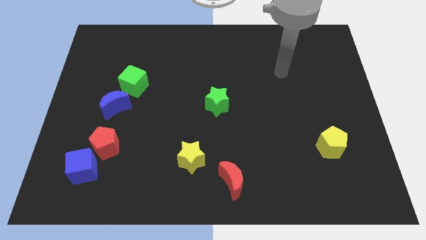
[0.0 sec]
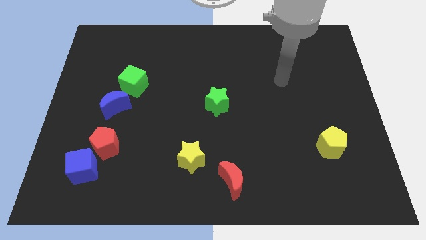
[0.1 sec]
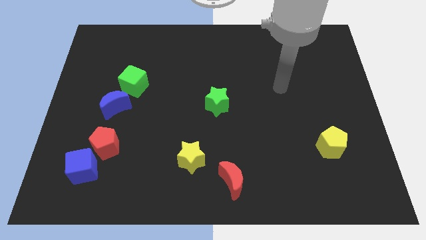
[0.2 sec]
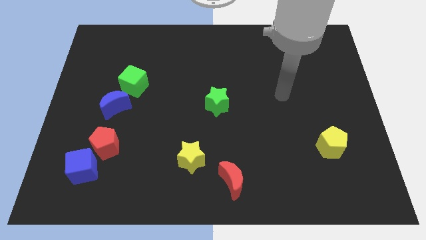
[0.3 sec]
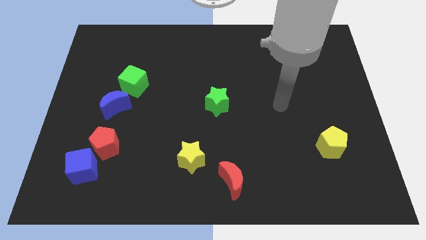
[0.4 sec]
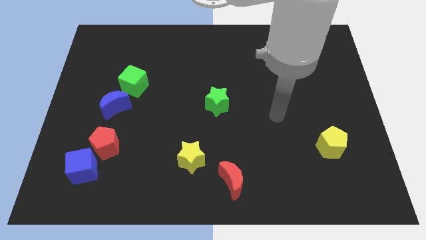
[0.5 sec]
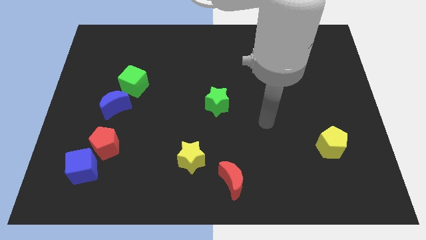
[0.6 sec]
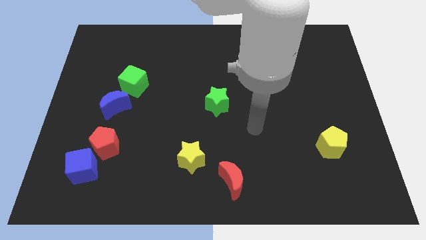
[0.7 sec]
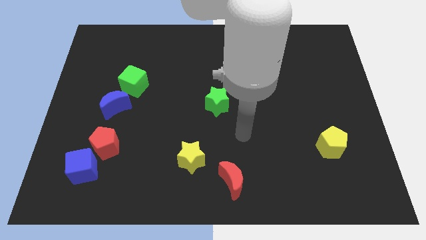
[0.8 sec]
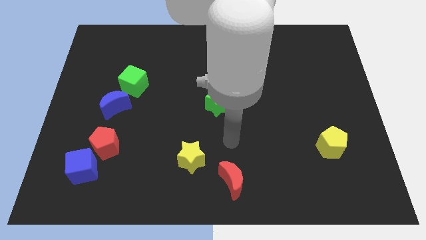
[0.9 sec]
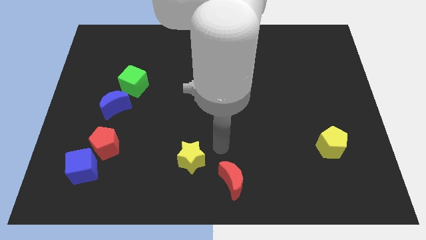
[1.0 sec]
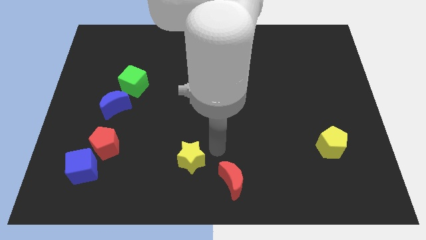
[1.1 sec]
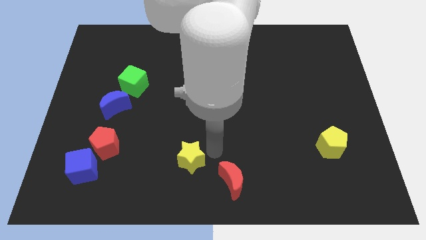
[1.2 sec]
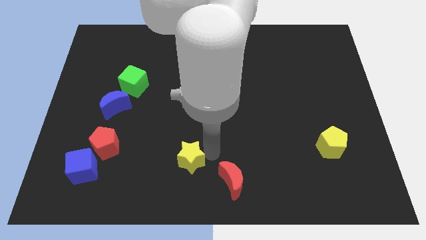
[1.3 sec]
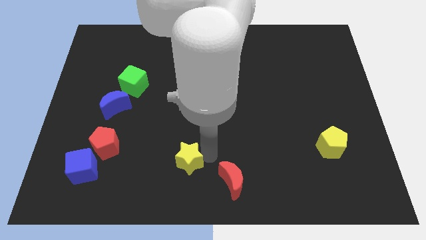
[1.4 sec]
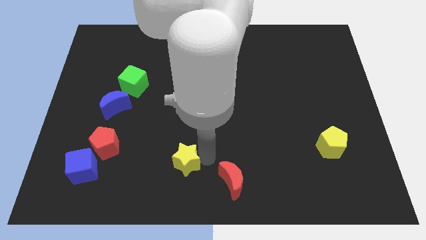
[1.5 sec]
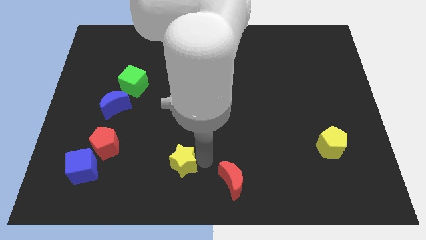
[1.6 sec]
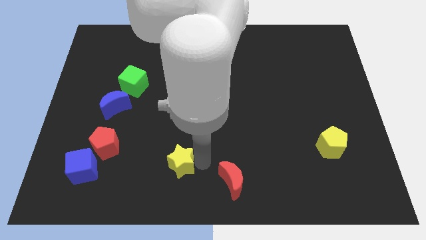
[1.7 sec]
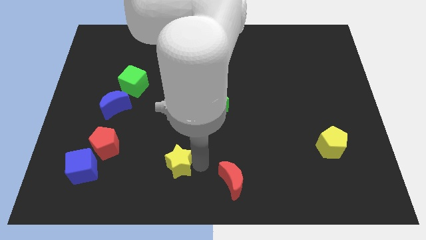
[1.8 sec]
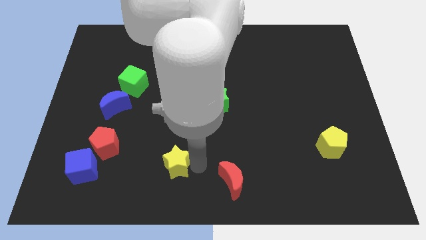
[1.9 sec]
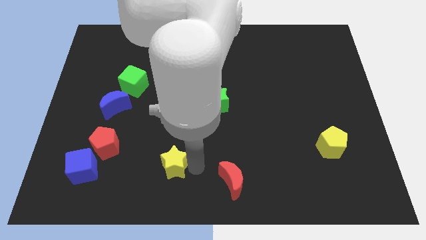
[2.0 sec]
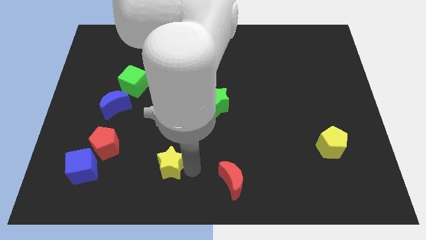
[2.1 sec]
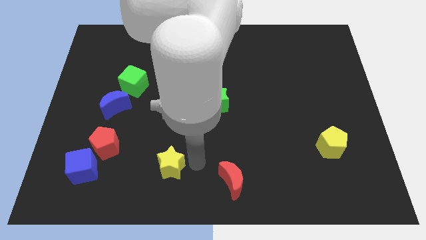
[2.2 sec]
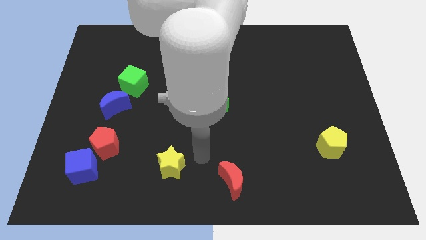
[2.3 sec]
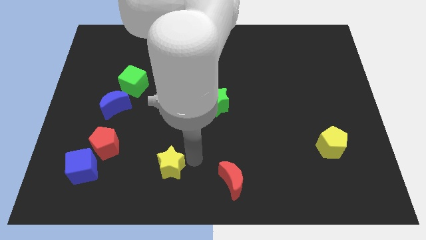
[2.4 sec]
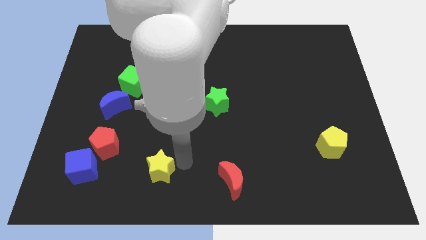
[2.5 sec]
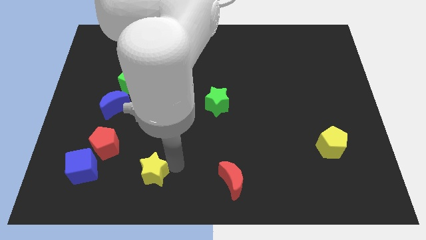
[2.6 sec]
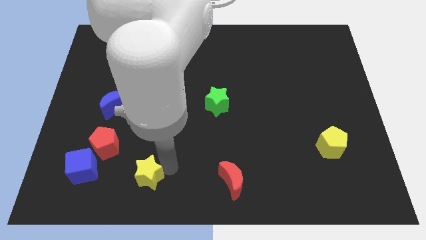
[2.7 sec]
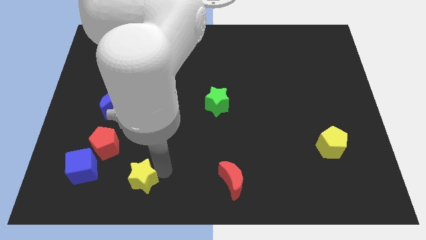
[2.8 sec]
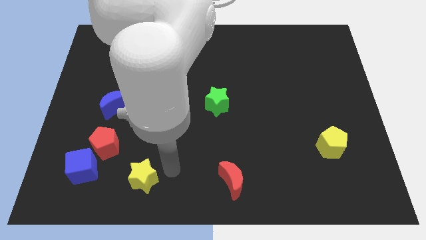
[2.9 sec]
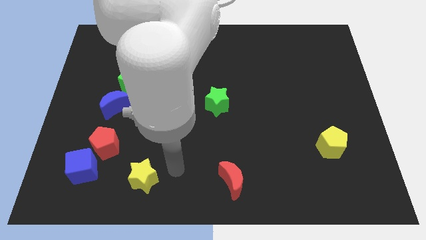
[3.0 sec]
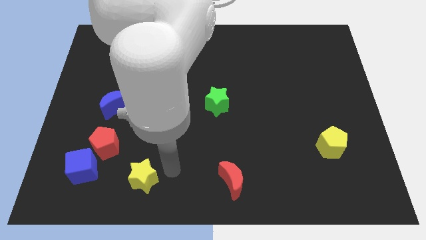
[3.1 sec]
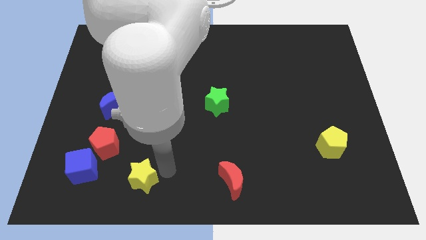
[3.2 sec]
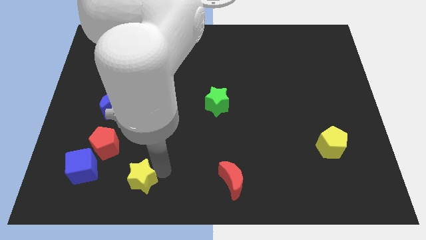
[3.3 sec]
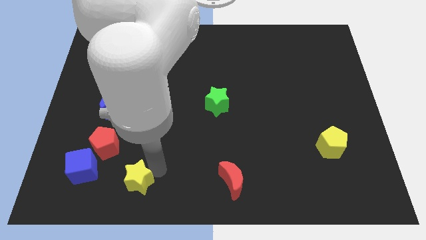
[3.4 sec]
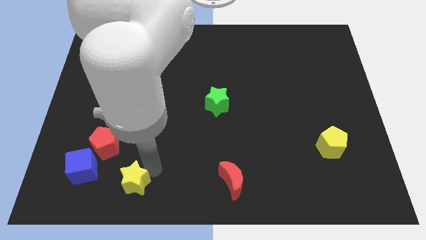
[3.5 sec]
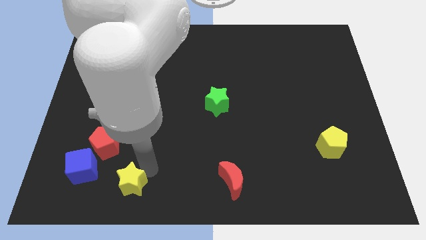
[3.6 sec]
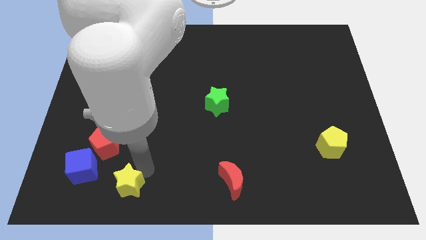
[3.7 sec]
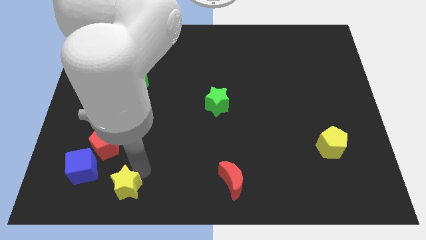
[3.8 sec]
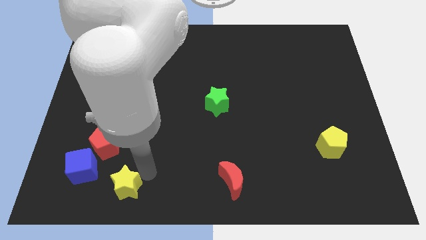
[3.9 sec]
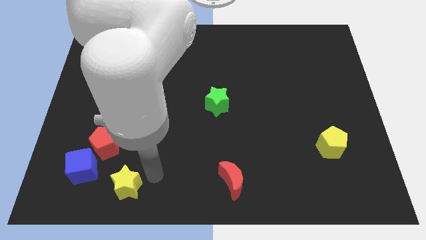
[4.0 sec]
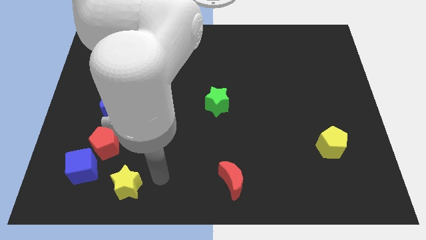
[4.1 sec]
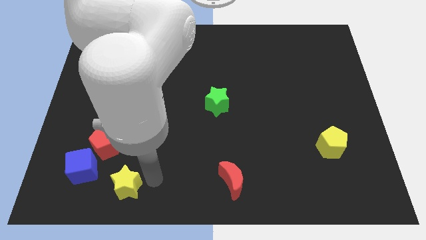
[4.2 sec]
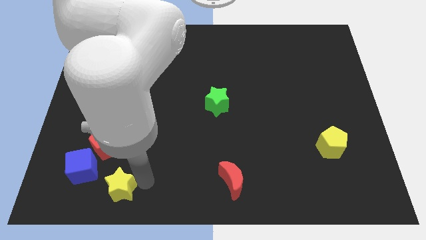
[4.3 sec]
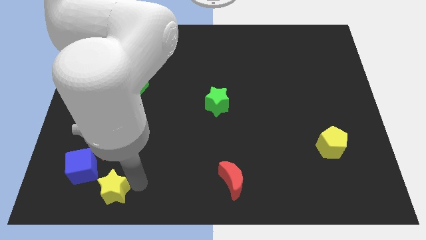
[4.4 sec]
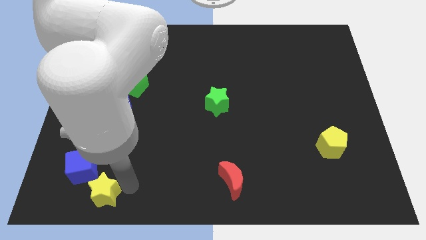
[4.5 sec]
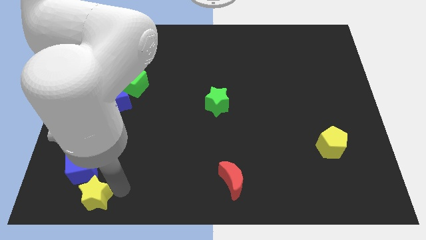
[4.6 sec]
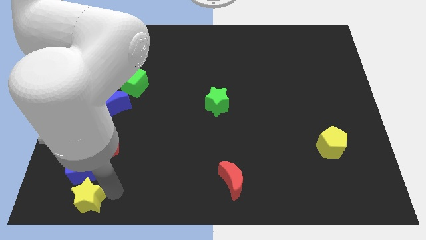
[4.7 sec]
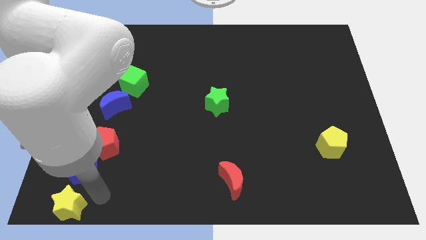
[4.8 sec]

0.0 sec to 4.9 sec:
move the yellow star to the bottom left corner

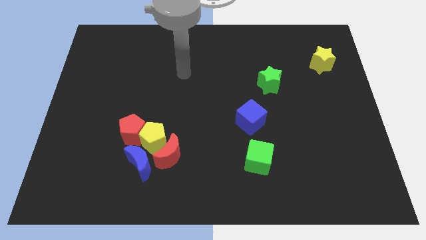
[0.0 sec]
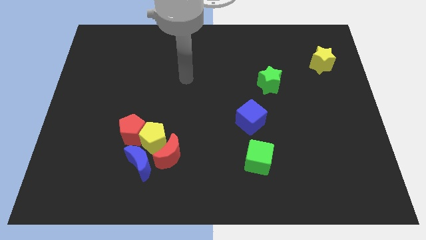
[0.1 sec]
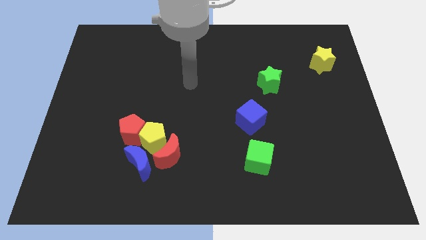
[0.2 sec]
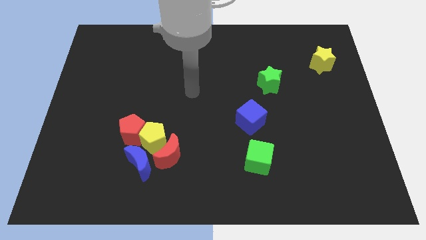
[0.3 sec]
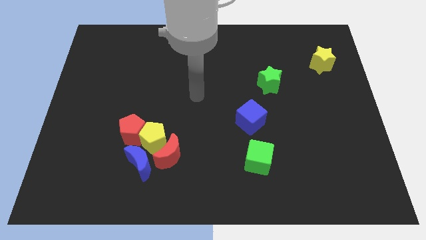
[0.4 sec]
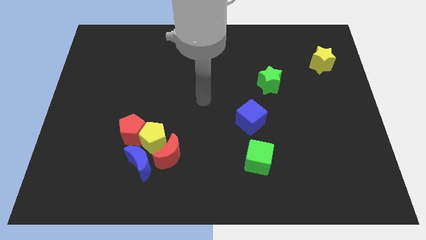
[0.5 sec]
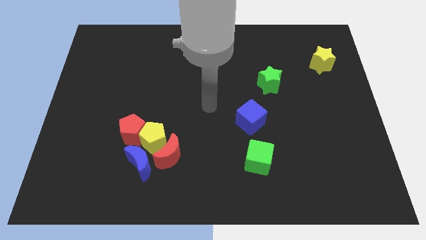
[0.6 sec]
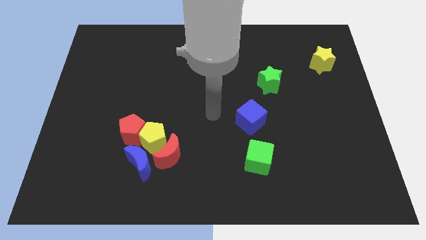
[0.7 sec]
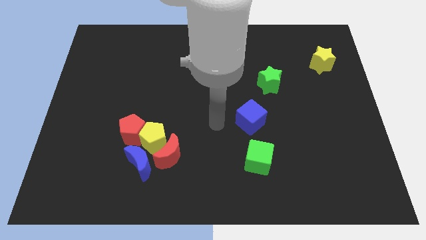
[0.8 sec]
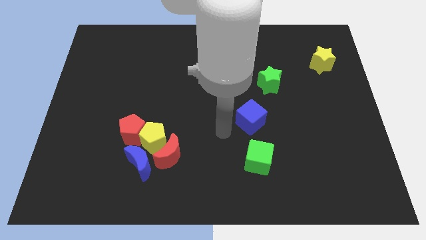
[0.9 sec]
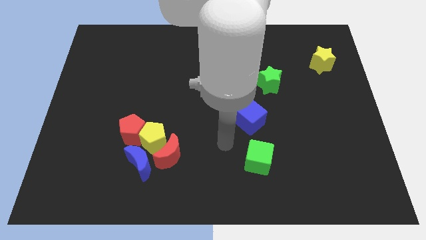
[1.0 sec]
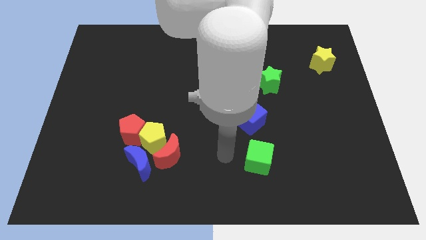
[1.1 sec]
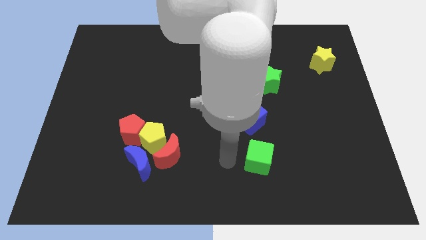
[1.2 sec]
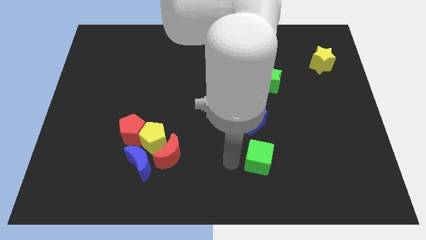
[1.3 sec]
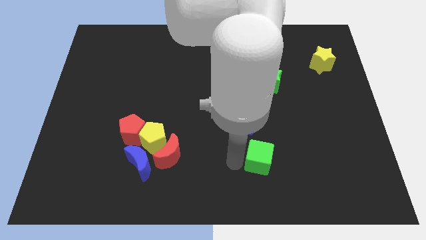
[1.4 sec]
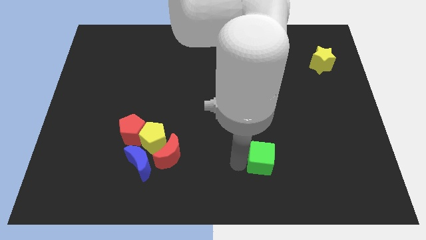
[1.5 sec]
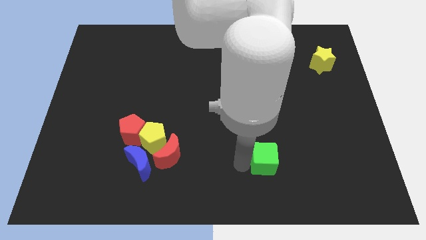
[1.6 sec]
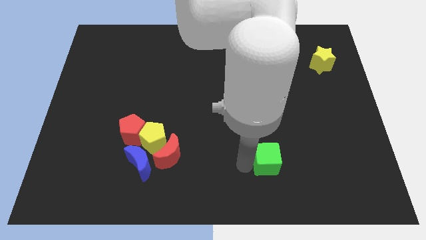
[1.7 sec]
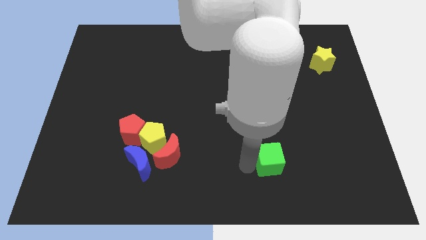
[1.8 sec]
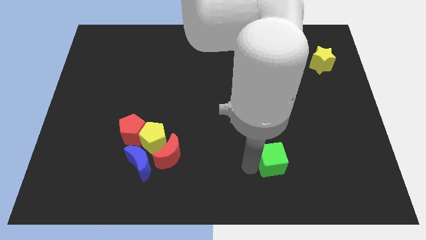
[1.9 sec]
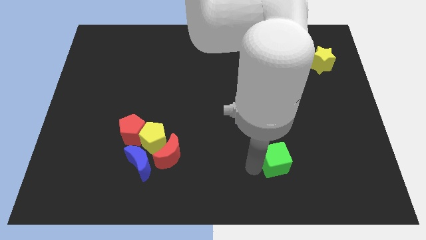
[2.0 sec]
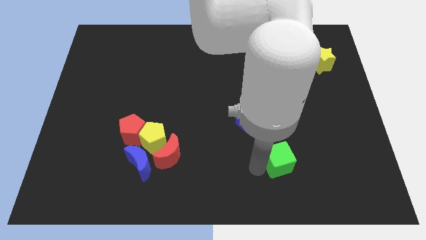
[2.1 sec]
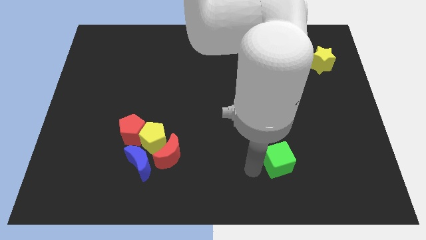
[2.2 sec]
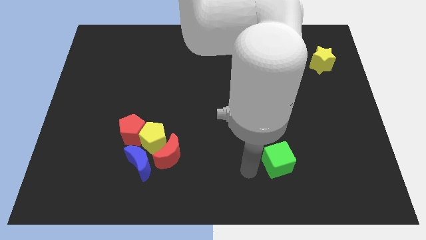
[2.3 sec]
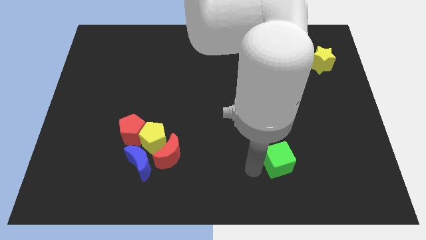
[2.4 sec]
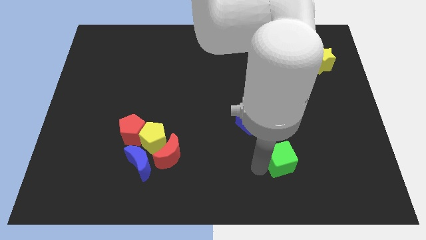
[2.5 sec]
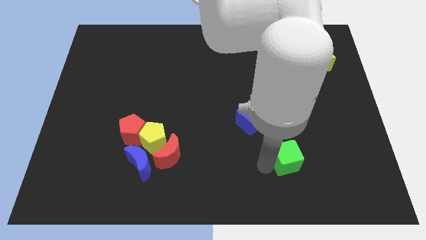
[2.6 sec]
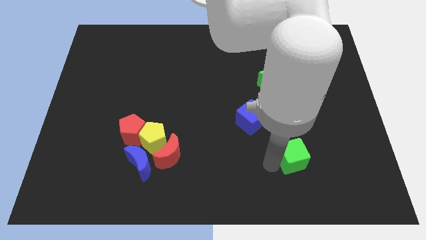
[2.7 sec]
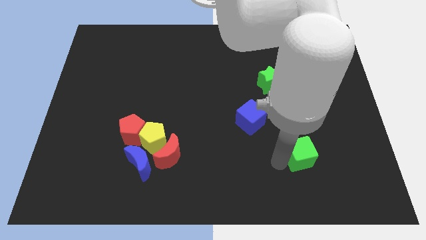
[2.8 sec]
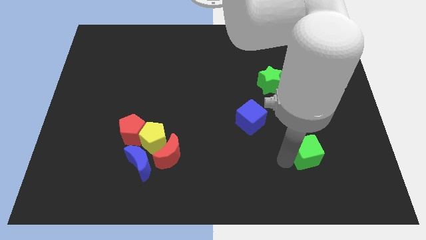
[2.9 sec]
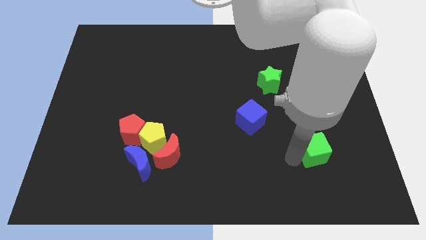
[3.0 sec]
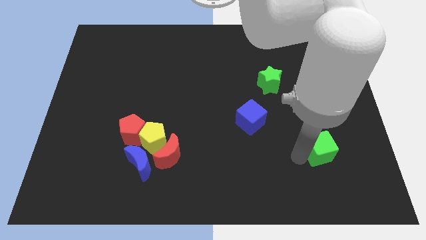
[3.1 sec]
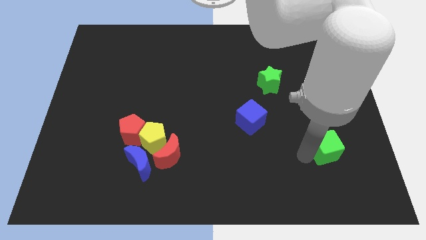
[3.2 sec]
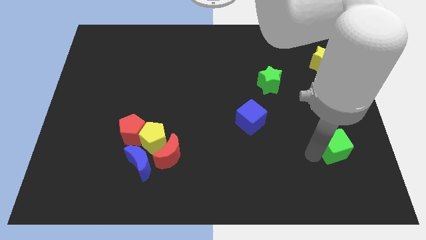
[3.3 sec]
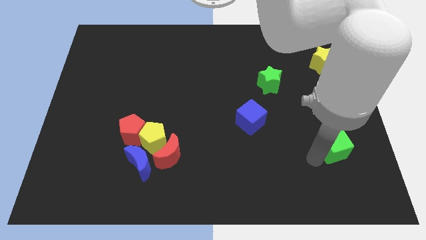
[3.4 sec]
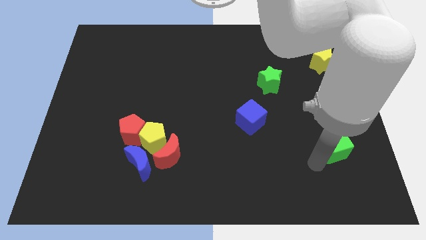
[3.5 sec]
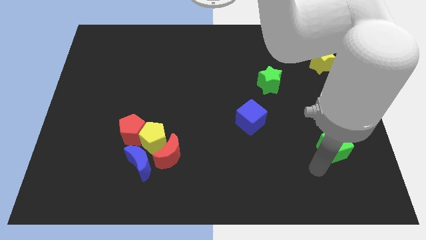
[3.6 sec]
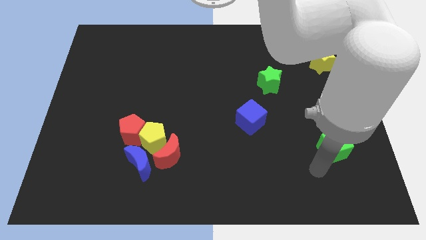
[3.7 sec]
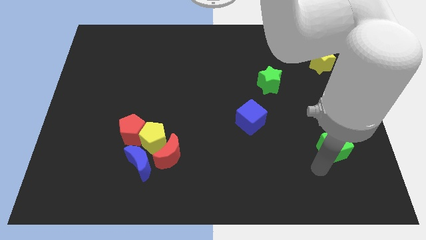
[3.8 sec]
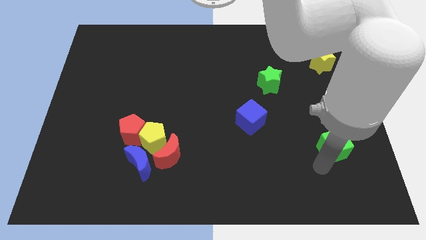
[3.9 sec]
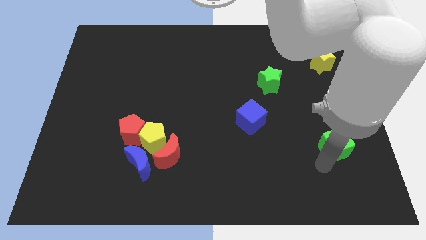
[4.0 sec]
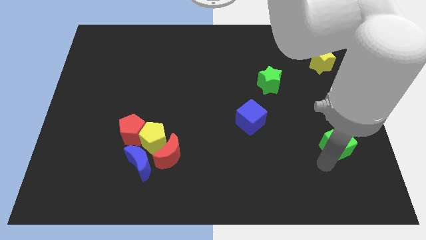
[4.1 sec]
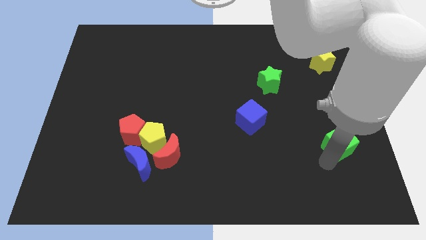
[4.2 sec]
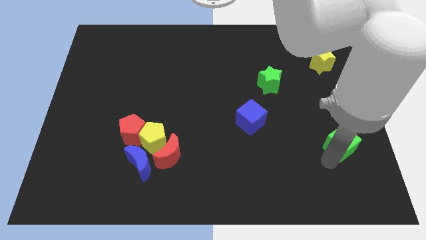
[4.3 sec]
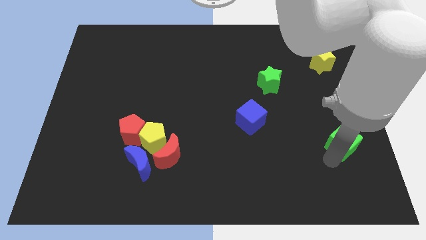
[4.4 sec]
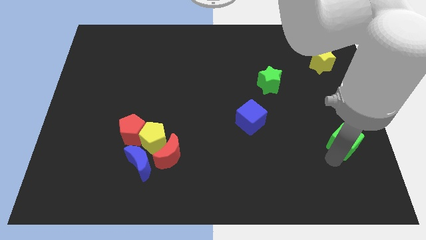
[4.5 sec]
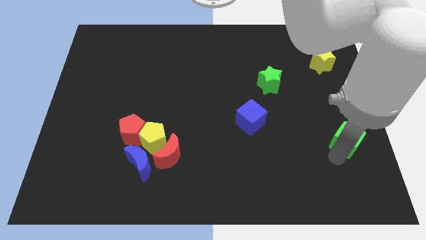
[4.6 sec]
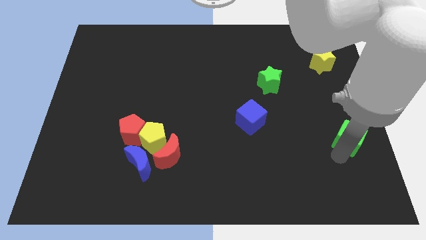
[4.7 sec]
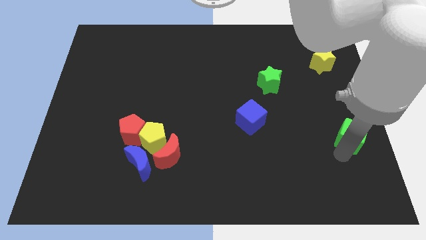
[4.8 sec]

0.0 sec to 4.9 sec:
push the green cube to the right side of the board
